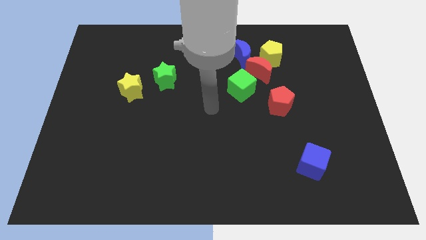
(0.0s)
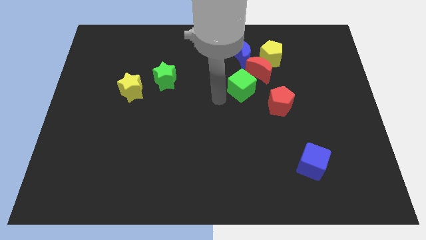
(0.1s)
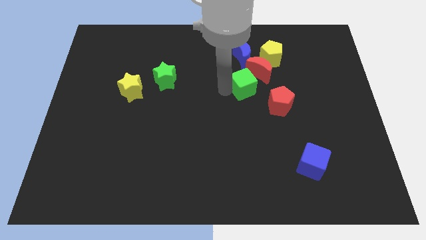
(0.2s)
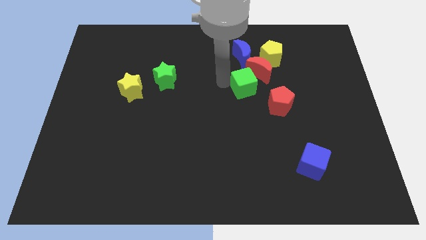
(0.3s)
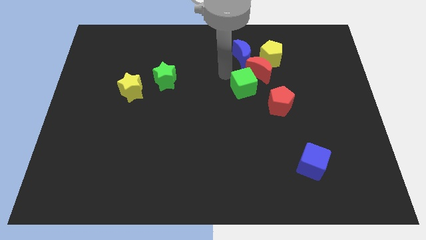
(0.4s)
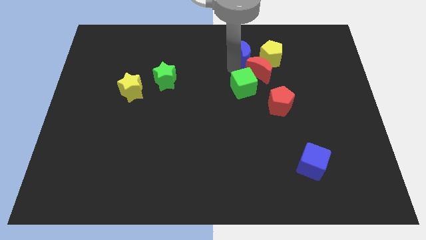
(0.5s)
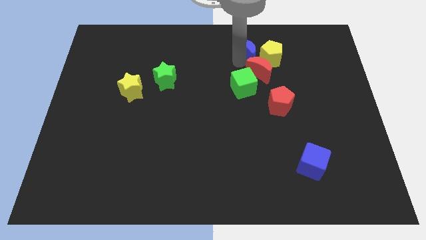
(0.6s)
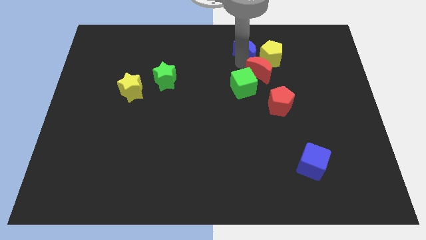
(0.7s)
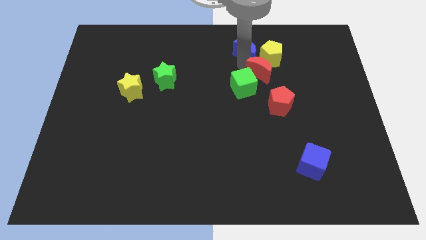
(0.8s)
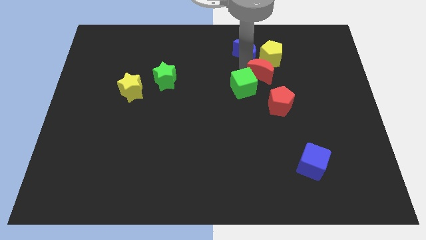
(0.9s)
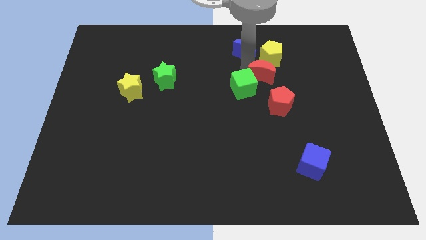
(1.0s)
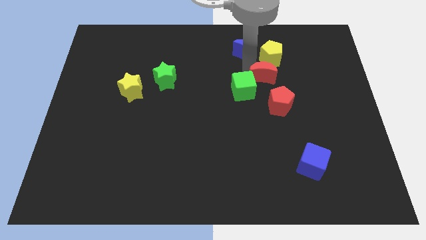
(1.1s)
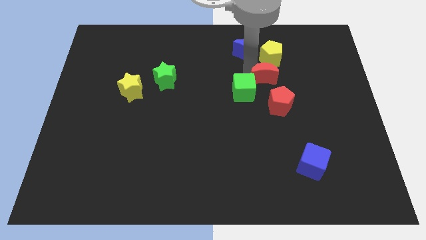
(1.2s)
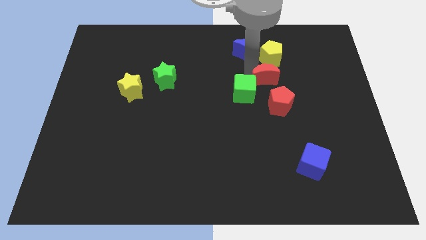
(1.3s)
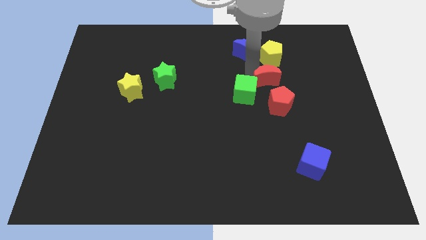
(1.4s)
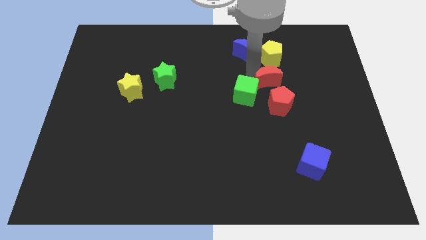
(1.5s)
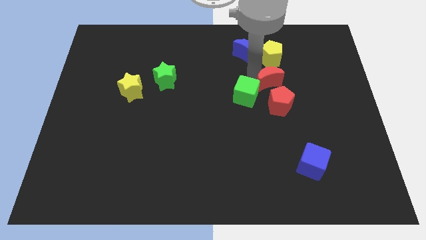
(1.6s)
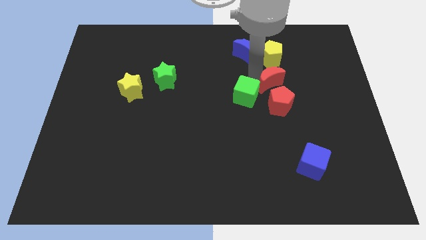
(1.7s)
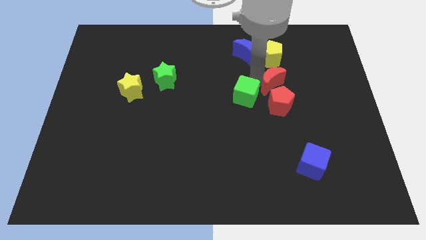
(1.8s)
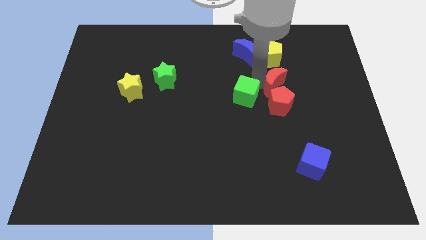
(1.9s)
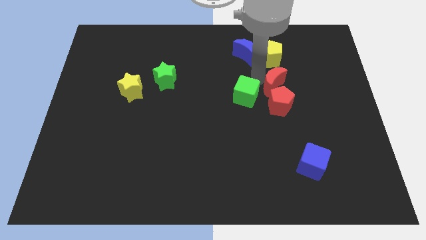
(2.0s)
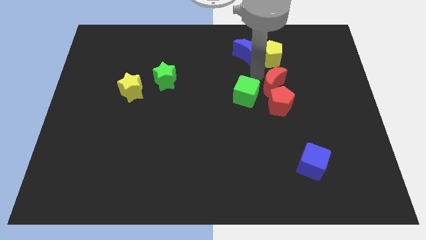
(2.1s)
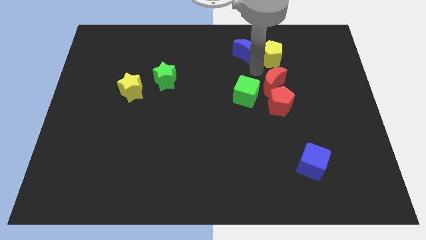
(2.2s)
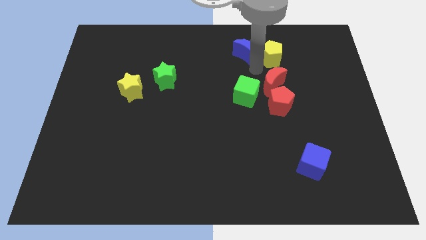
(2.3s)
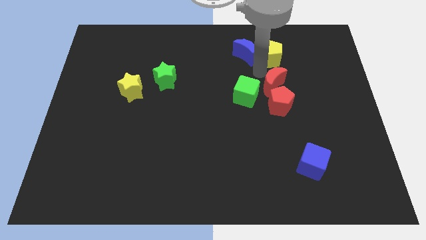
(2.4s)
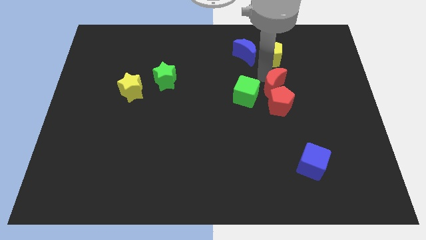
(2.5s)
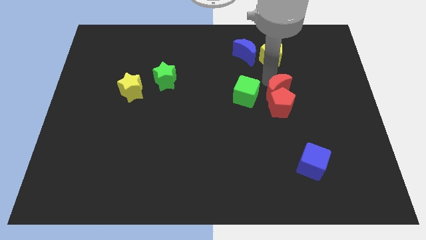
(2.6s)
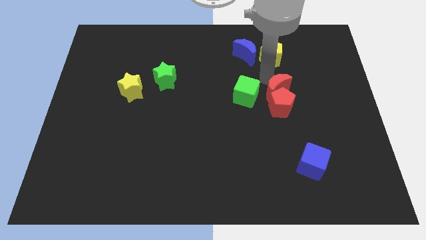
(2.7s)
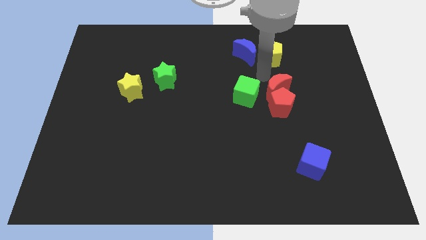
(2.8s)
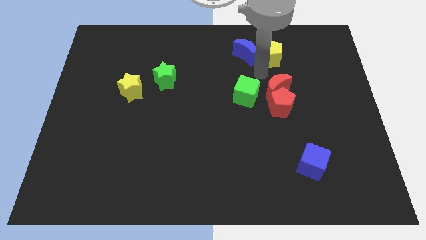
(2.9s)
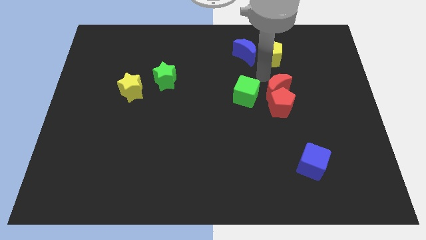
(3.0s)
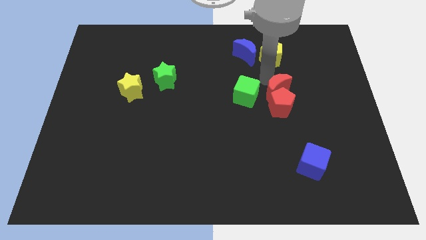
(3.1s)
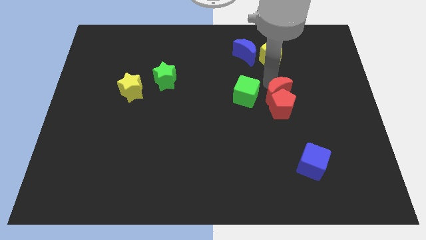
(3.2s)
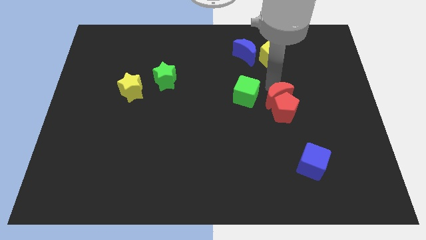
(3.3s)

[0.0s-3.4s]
pull the red moon apart from the group of blocks

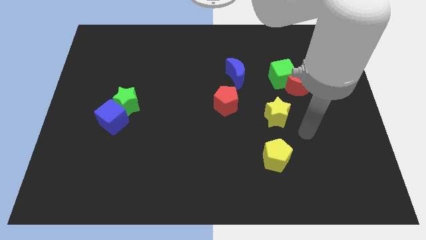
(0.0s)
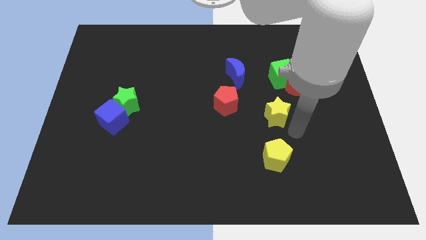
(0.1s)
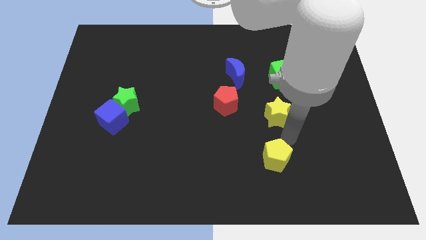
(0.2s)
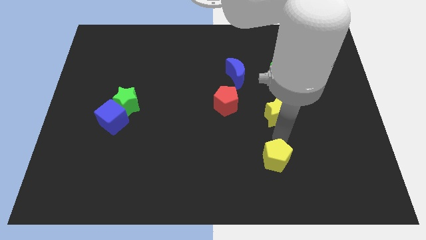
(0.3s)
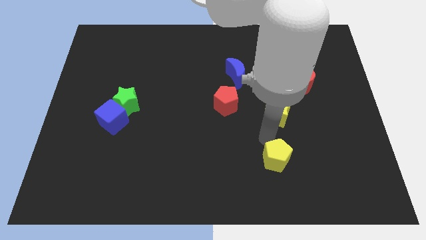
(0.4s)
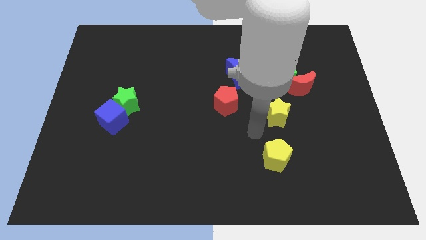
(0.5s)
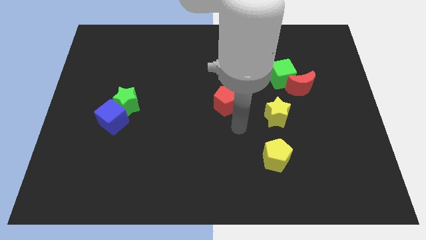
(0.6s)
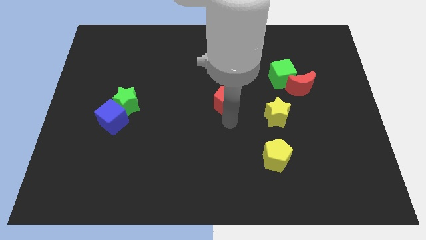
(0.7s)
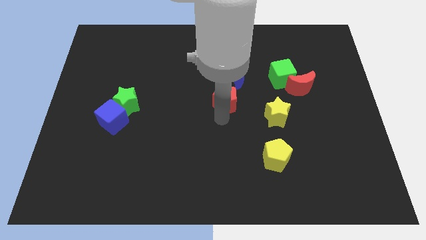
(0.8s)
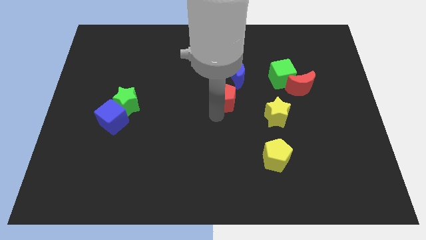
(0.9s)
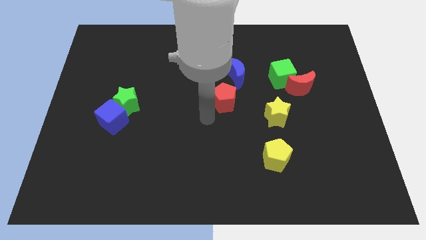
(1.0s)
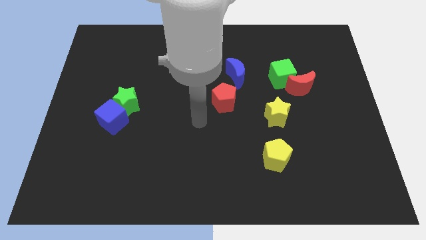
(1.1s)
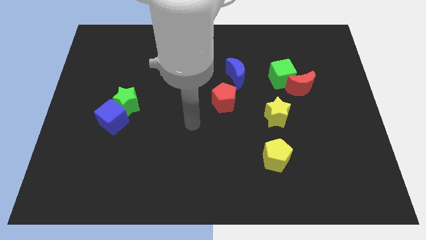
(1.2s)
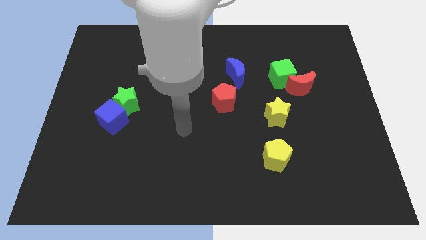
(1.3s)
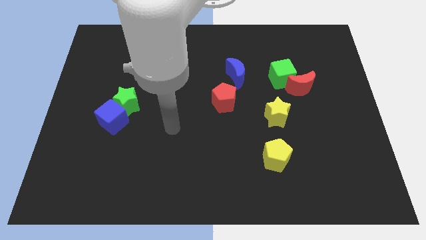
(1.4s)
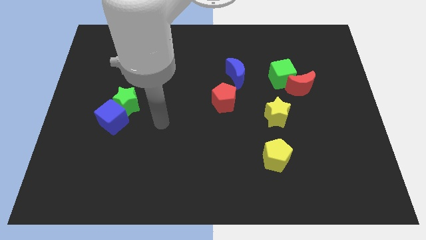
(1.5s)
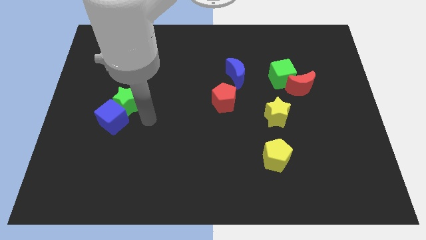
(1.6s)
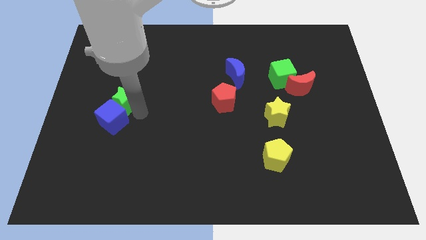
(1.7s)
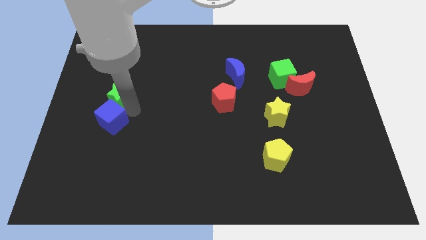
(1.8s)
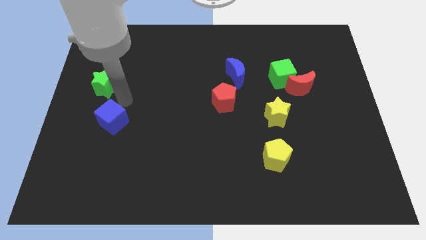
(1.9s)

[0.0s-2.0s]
separate the blue cube from the green star

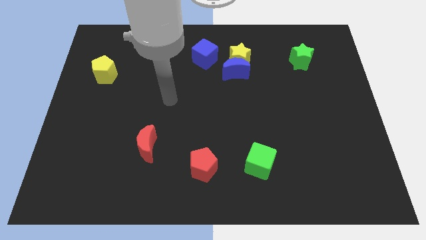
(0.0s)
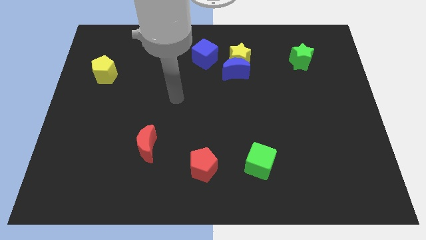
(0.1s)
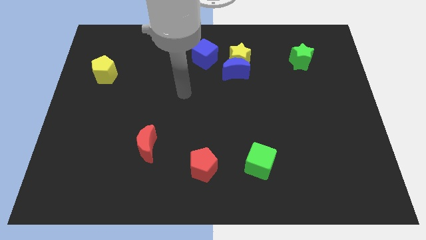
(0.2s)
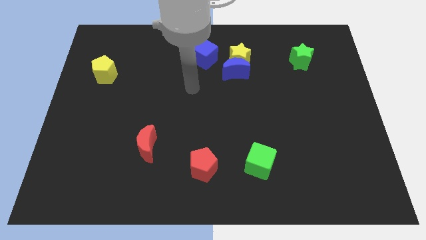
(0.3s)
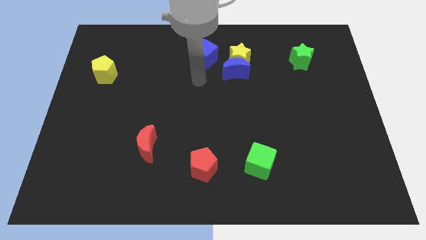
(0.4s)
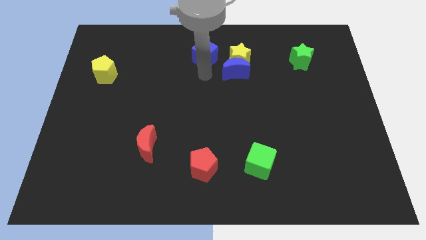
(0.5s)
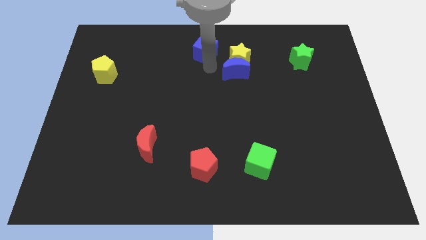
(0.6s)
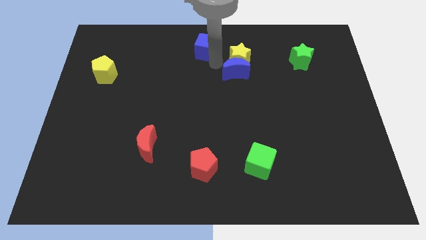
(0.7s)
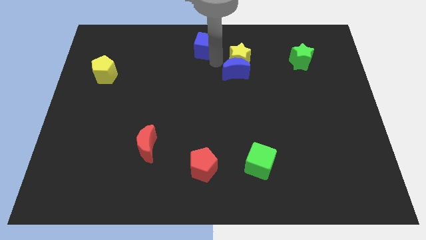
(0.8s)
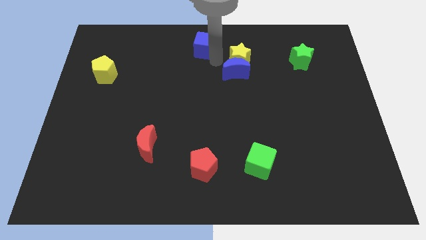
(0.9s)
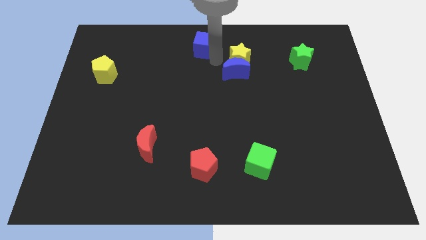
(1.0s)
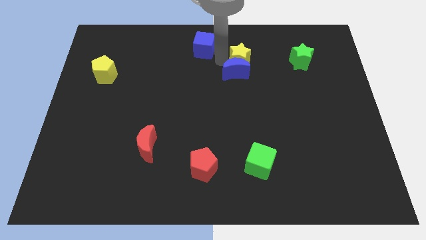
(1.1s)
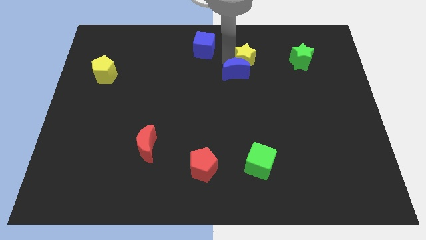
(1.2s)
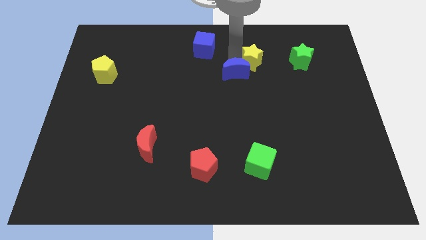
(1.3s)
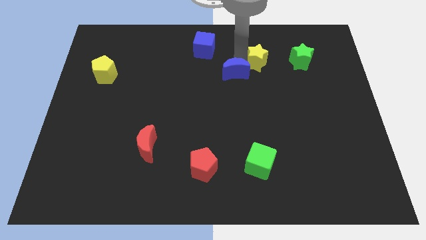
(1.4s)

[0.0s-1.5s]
pull the yellow star apart from the blue moon and blue cube

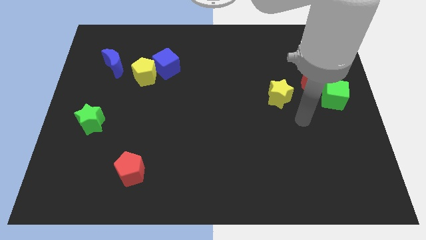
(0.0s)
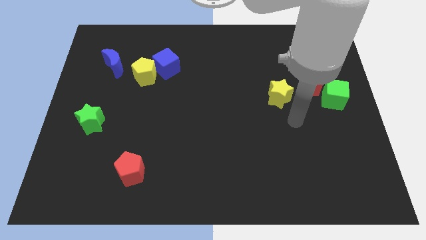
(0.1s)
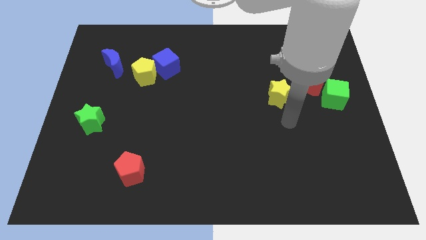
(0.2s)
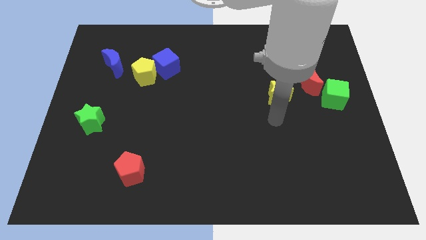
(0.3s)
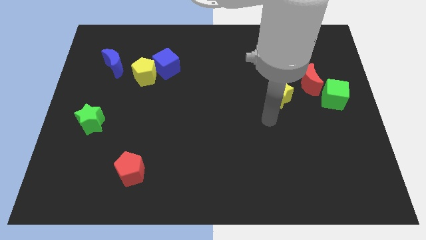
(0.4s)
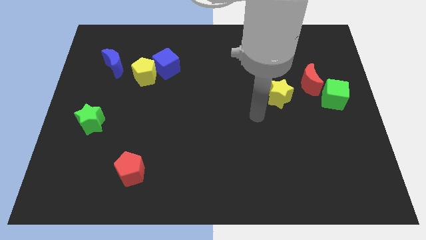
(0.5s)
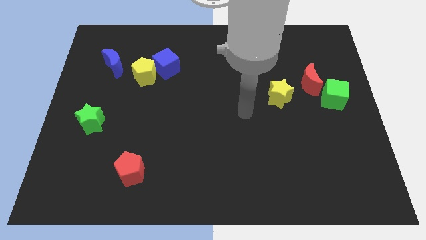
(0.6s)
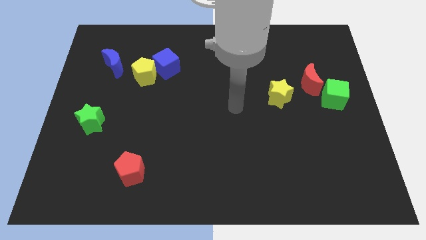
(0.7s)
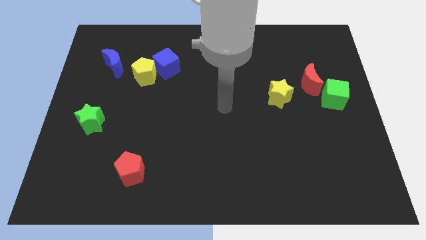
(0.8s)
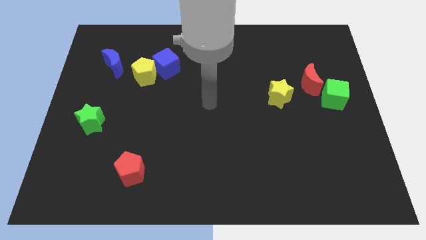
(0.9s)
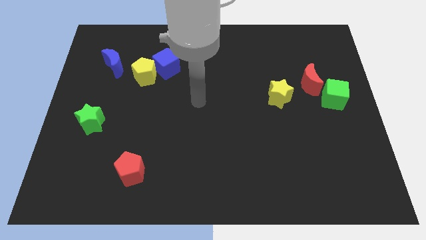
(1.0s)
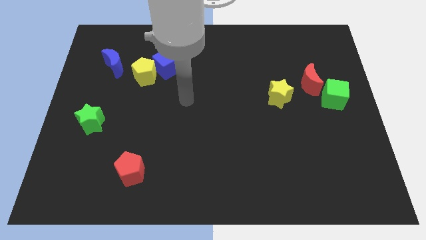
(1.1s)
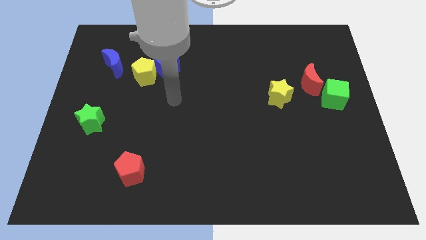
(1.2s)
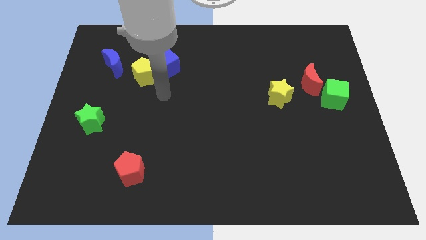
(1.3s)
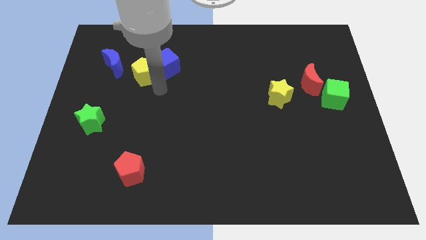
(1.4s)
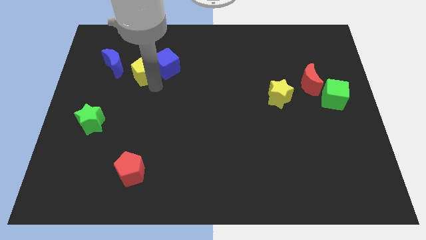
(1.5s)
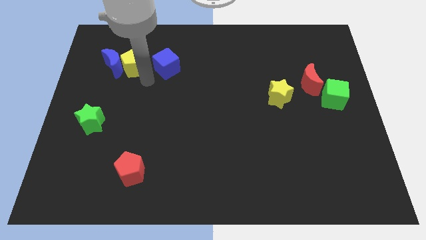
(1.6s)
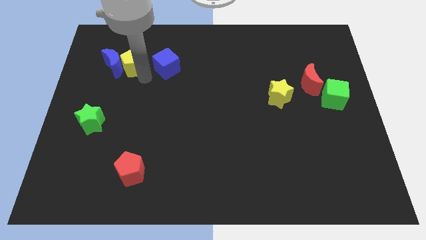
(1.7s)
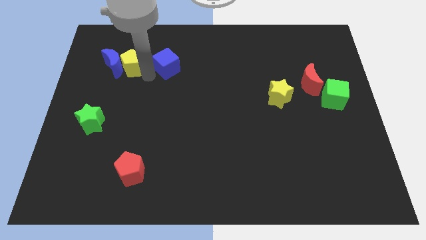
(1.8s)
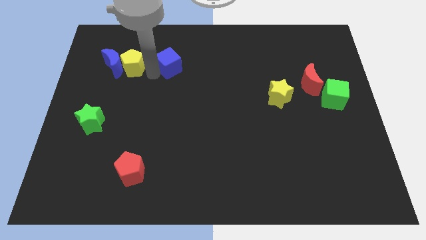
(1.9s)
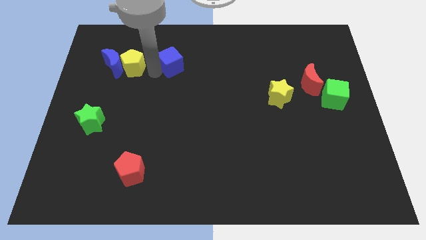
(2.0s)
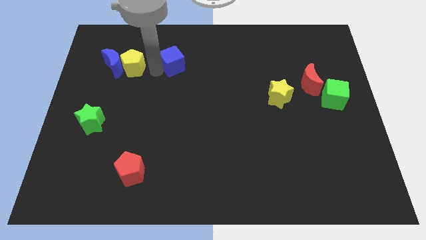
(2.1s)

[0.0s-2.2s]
pull the blue cube apart from the yellow pentagon

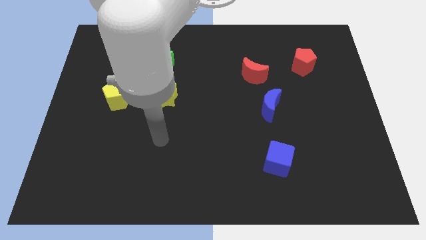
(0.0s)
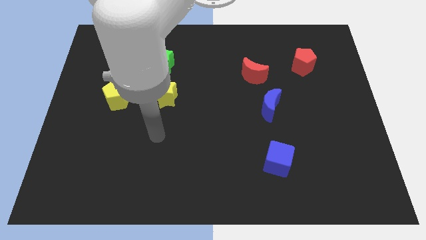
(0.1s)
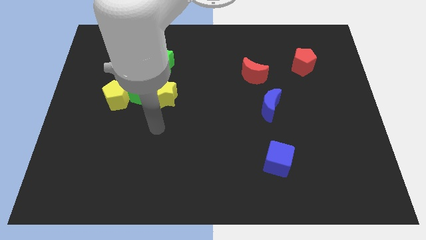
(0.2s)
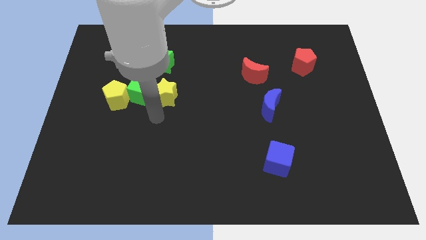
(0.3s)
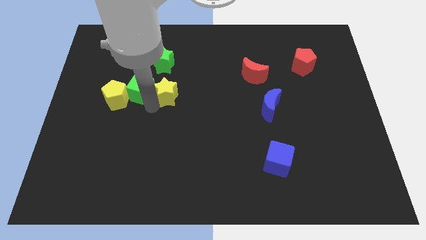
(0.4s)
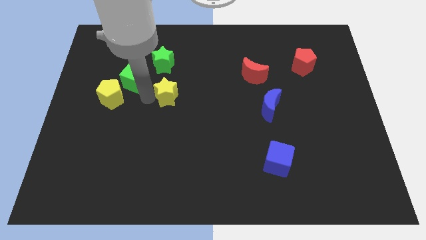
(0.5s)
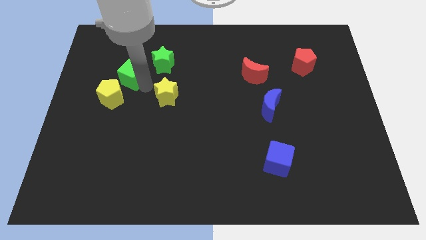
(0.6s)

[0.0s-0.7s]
move the yellow star away from the green cube
